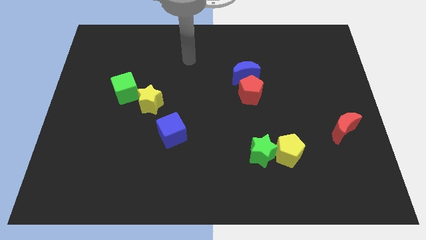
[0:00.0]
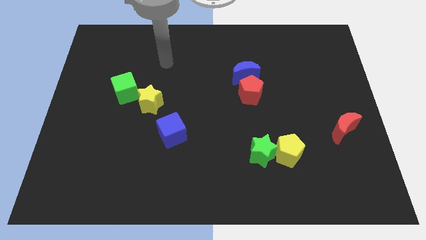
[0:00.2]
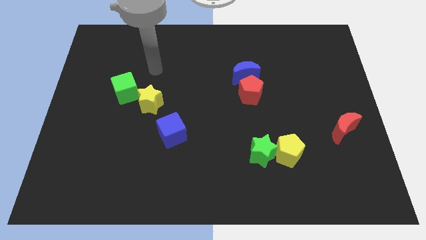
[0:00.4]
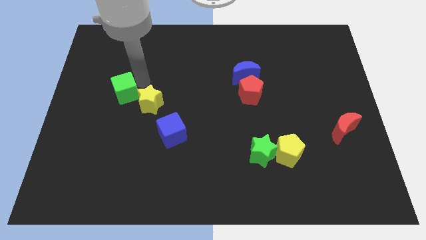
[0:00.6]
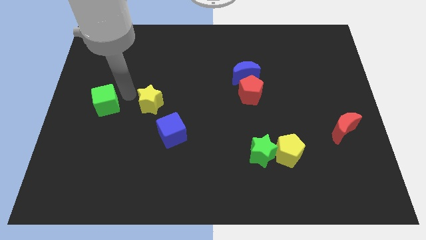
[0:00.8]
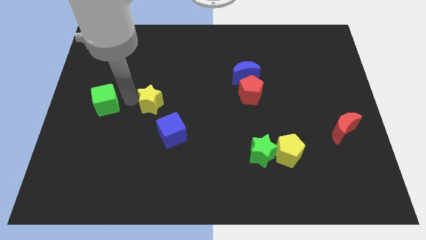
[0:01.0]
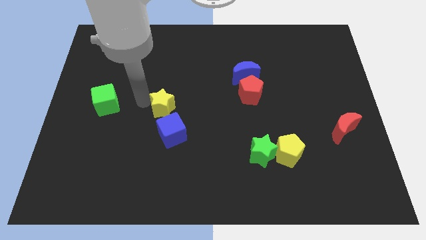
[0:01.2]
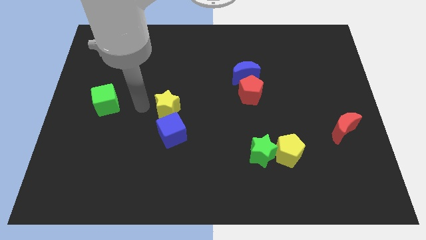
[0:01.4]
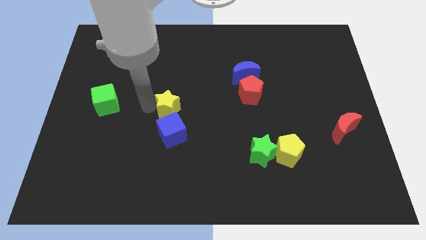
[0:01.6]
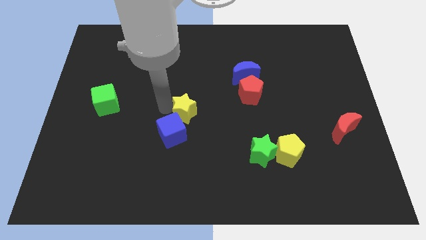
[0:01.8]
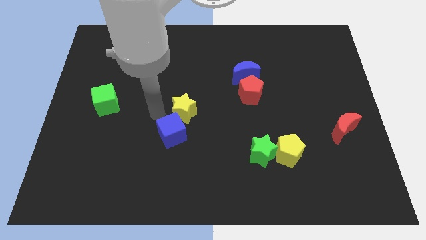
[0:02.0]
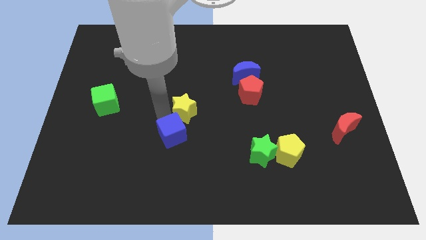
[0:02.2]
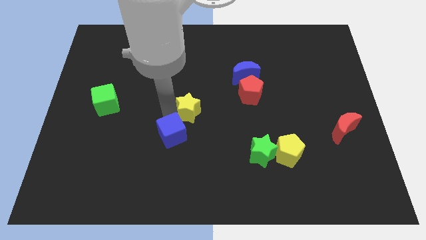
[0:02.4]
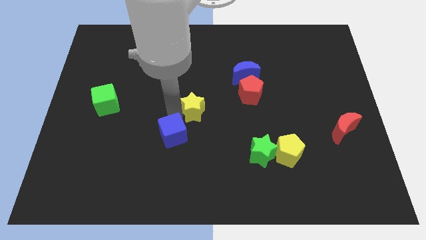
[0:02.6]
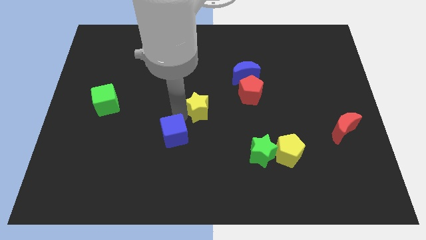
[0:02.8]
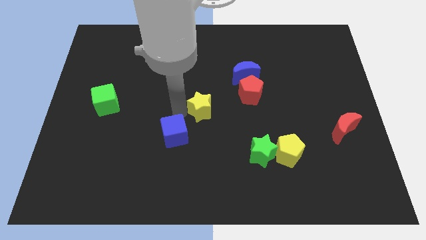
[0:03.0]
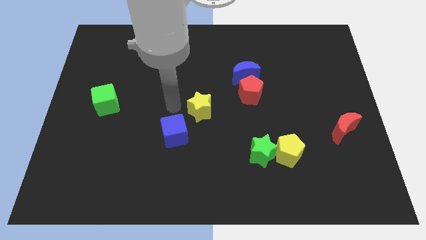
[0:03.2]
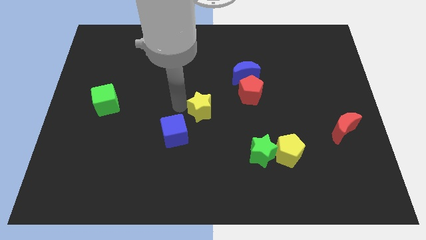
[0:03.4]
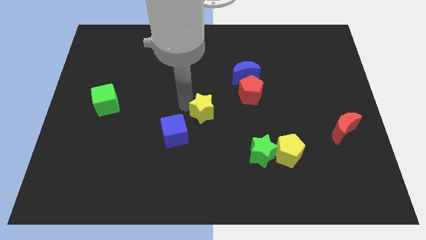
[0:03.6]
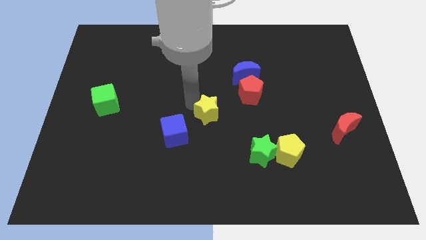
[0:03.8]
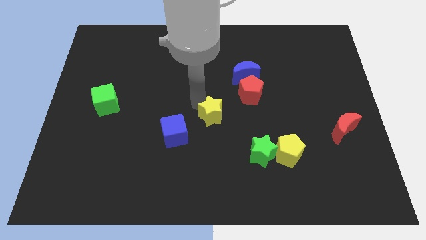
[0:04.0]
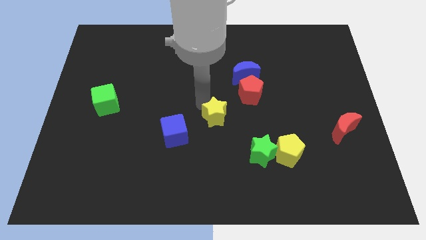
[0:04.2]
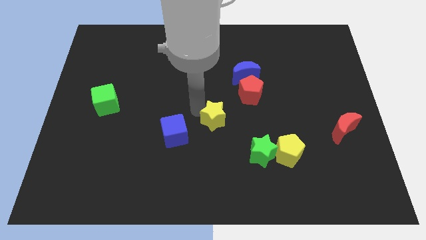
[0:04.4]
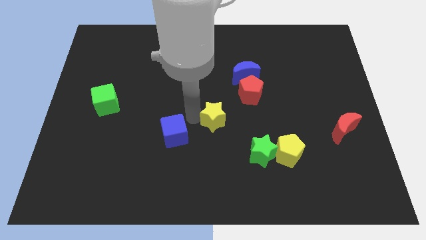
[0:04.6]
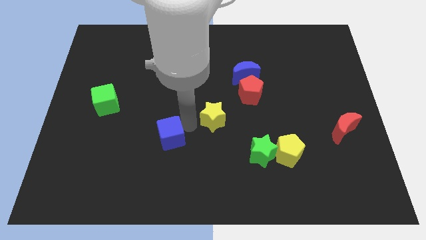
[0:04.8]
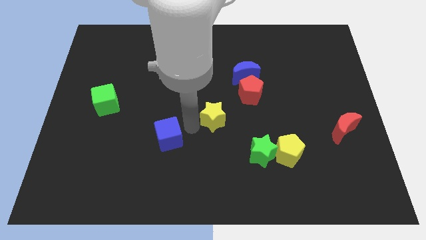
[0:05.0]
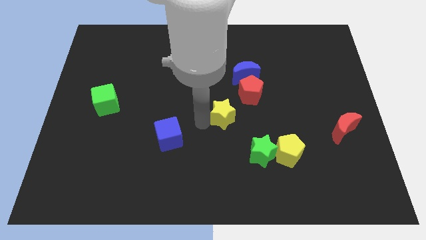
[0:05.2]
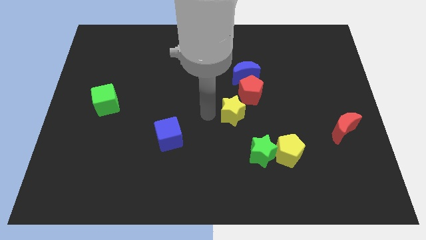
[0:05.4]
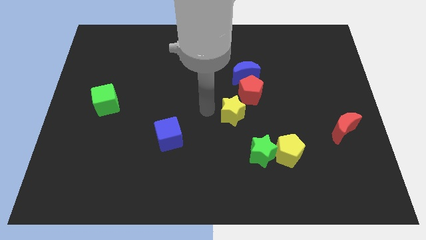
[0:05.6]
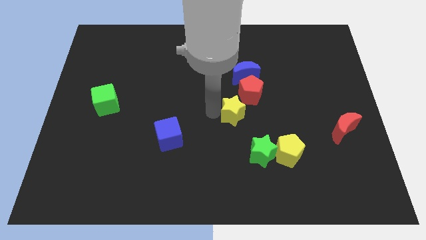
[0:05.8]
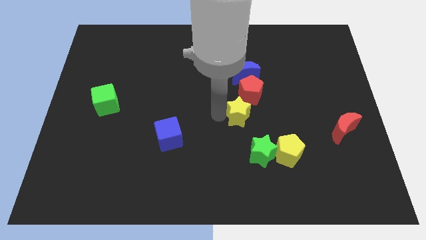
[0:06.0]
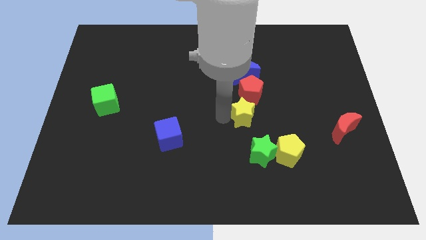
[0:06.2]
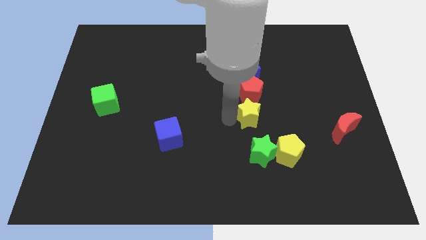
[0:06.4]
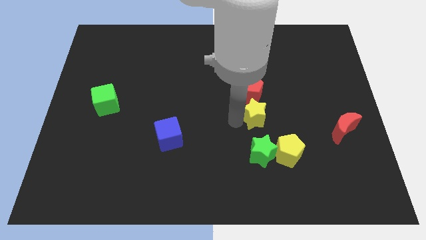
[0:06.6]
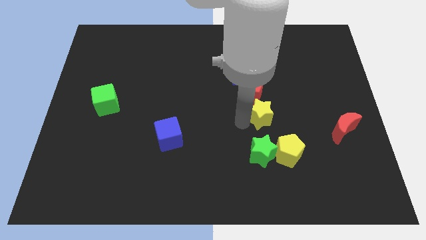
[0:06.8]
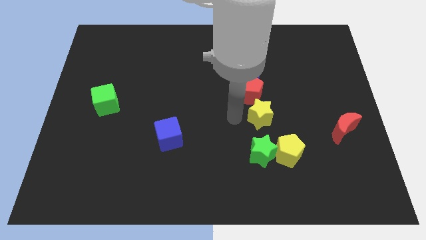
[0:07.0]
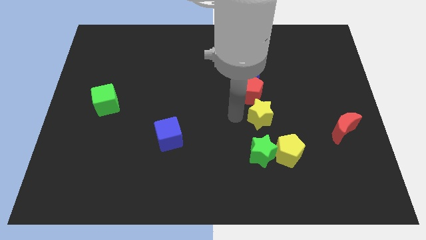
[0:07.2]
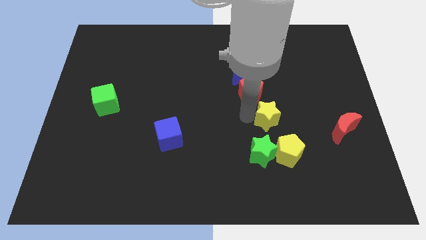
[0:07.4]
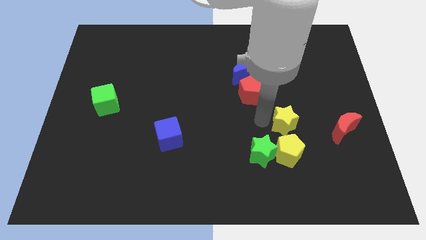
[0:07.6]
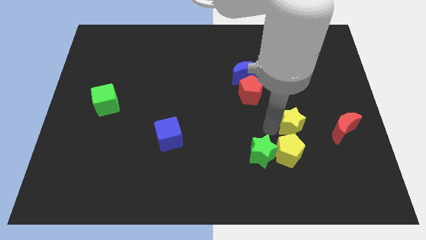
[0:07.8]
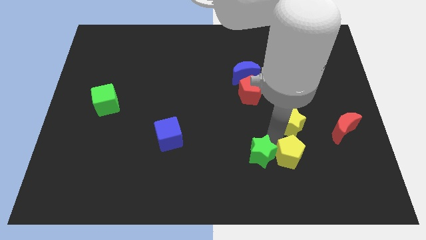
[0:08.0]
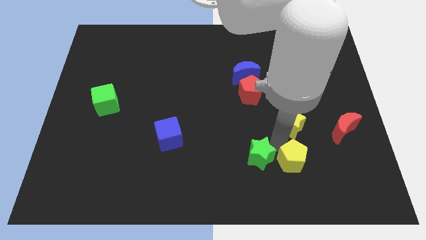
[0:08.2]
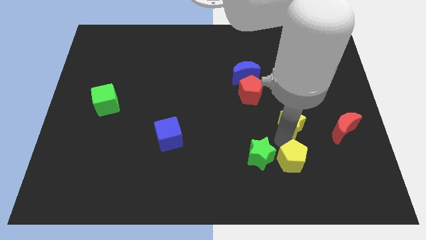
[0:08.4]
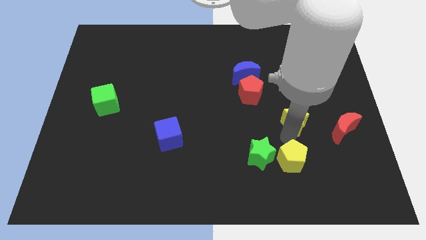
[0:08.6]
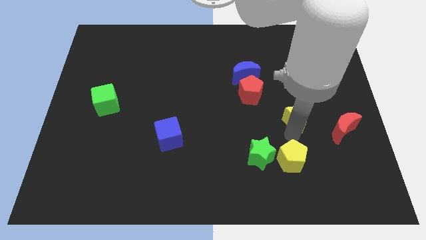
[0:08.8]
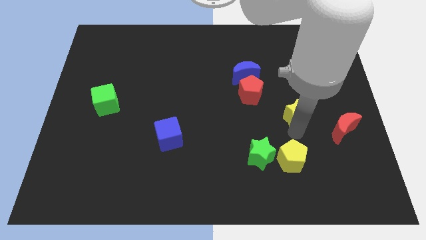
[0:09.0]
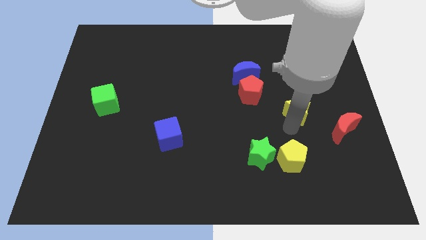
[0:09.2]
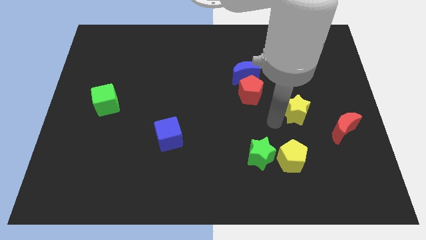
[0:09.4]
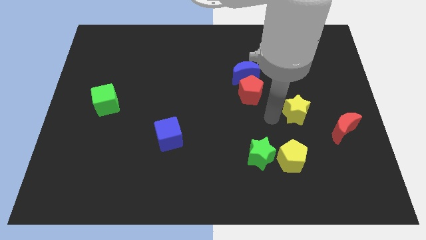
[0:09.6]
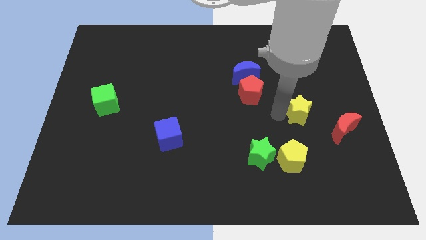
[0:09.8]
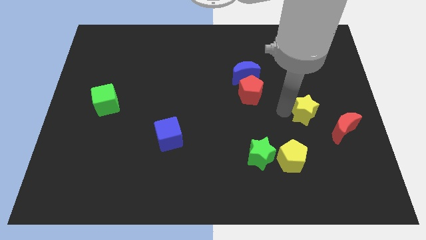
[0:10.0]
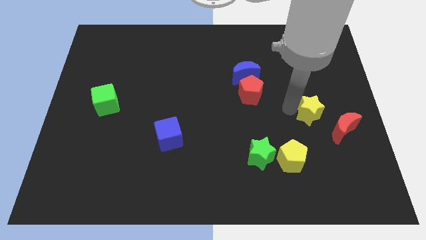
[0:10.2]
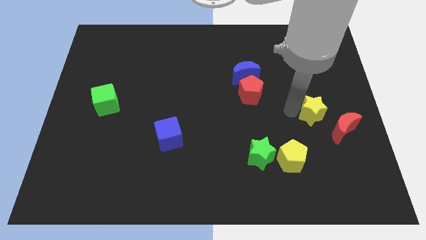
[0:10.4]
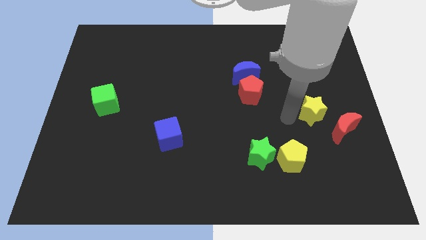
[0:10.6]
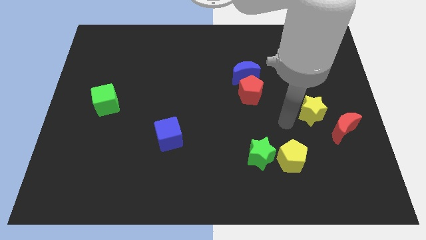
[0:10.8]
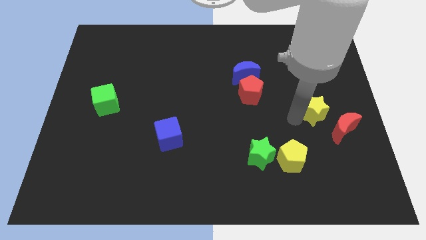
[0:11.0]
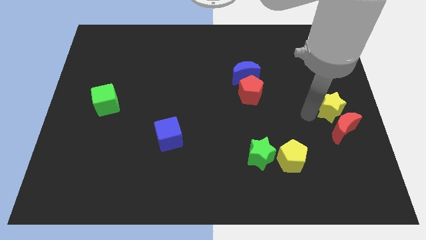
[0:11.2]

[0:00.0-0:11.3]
push the yellow star to the center right

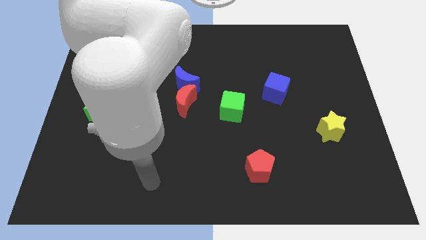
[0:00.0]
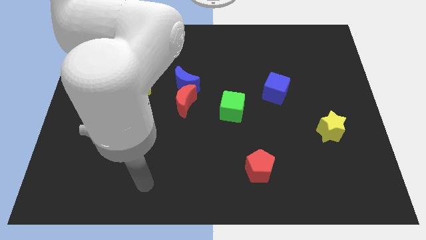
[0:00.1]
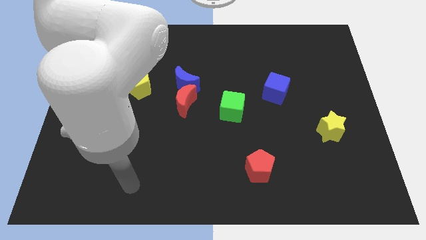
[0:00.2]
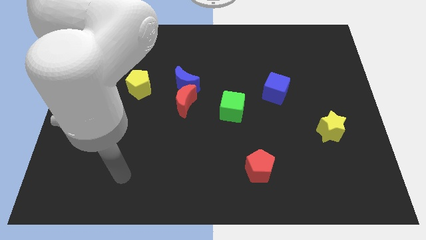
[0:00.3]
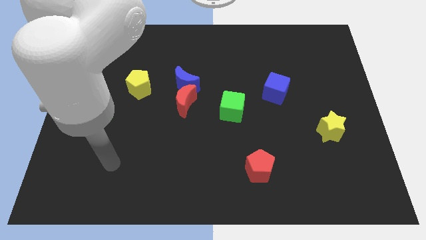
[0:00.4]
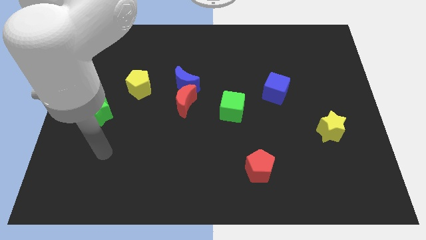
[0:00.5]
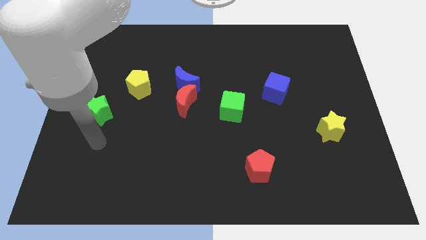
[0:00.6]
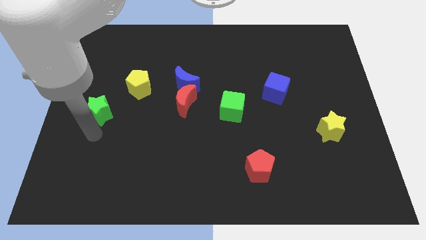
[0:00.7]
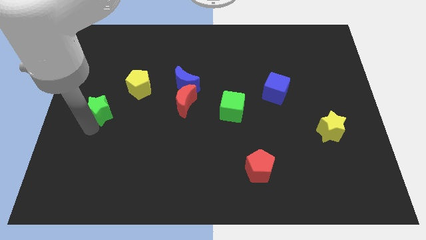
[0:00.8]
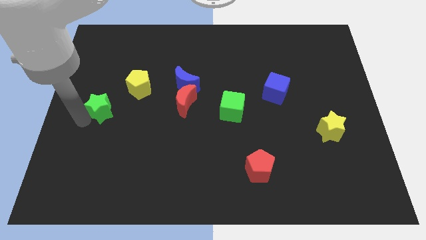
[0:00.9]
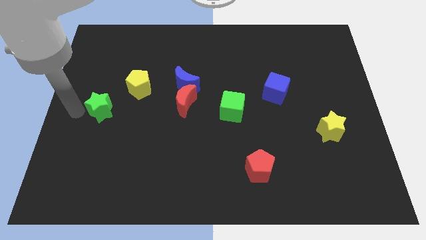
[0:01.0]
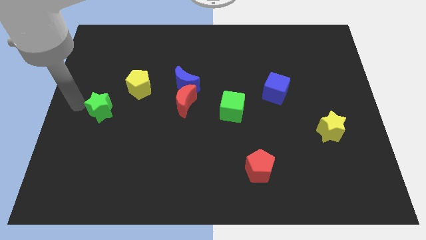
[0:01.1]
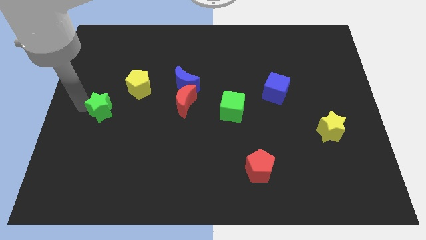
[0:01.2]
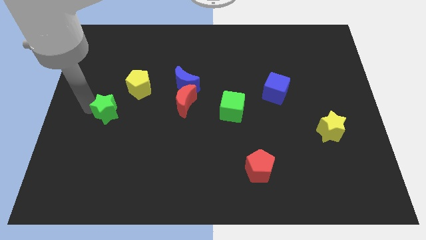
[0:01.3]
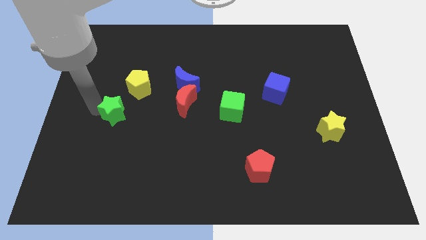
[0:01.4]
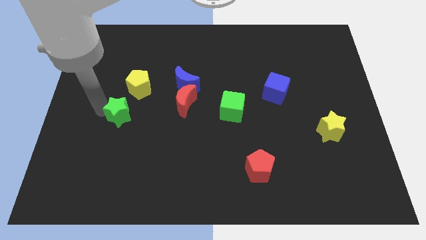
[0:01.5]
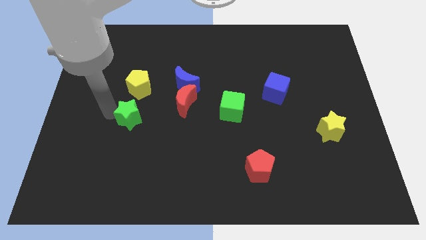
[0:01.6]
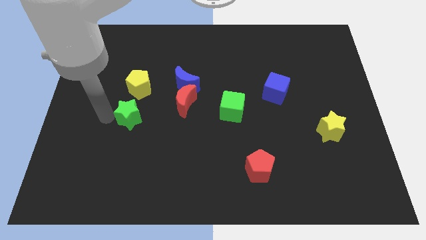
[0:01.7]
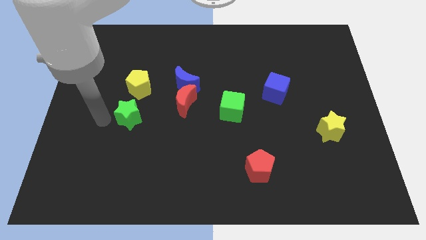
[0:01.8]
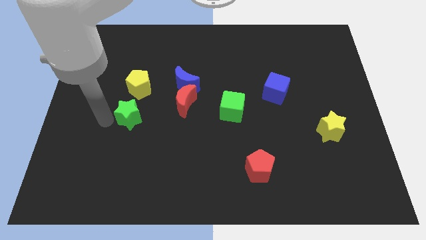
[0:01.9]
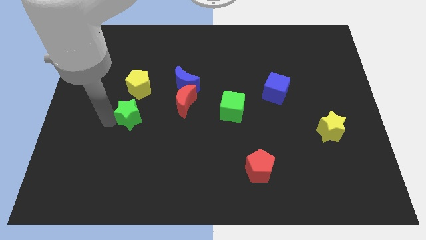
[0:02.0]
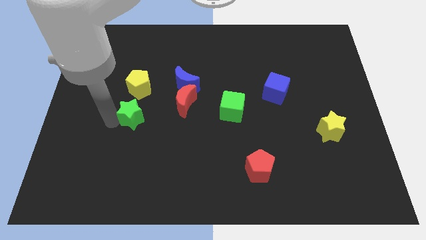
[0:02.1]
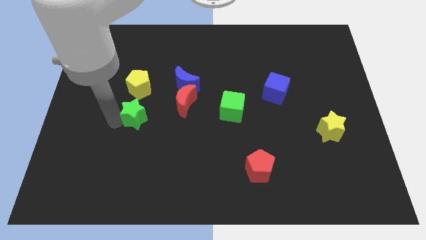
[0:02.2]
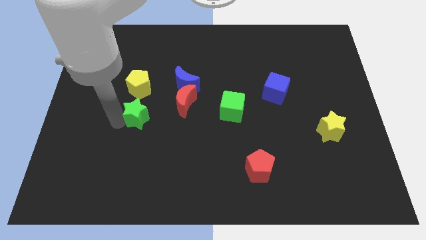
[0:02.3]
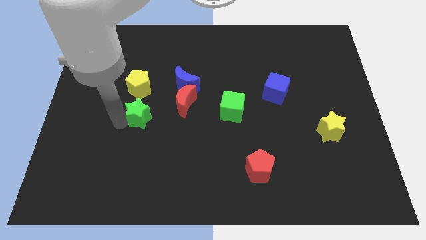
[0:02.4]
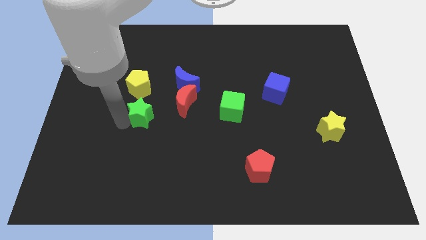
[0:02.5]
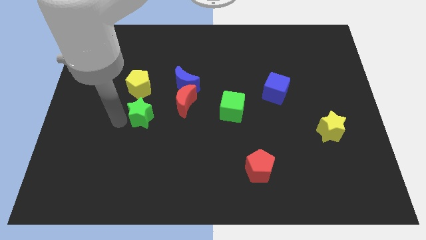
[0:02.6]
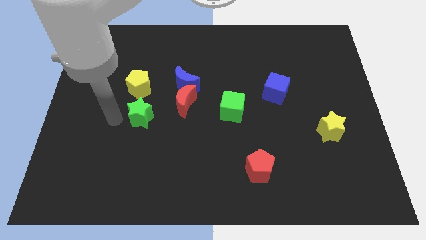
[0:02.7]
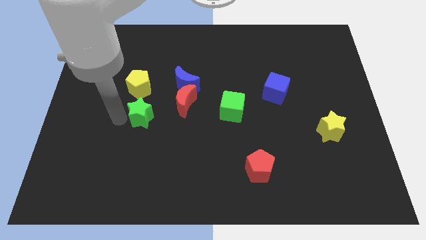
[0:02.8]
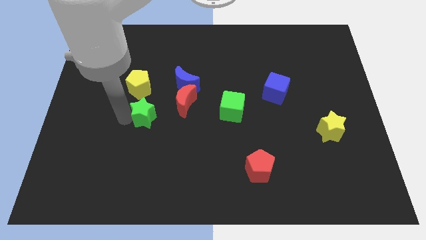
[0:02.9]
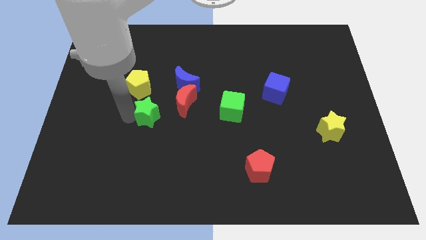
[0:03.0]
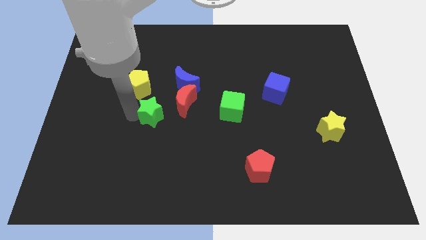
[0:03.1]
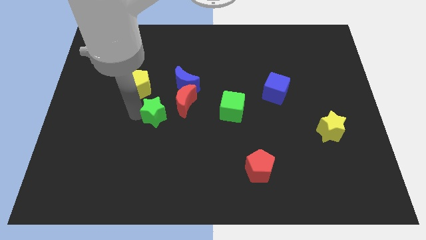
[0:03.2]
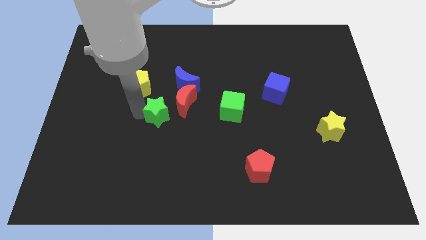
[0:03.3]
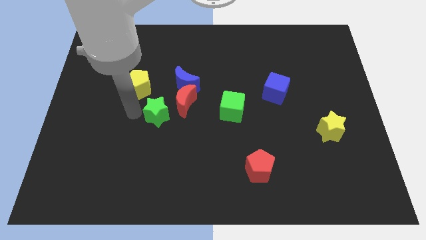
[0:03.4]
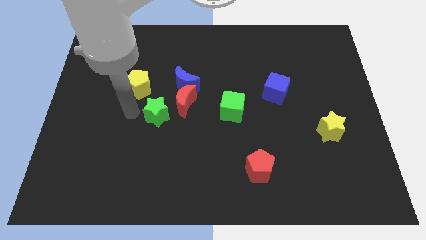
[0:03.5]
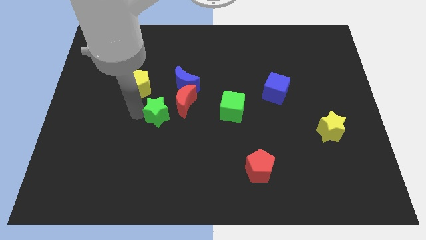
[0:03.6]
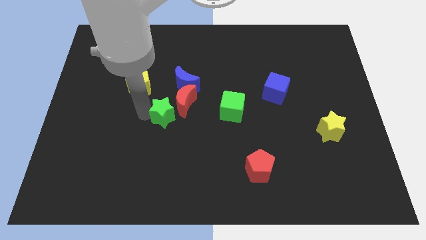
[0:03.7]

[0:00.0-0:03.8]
slide the green star to the center of the board
